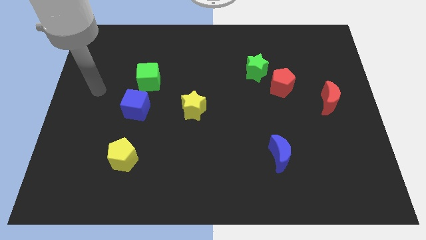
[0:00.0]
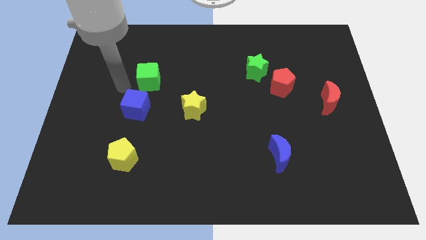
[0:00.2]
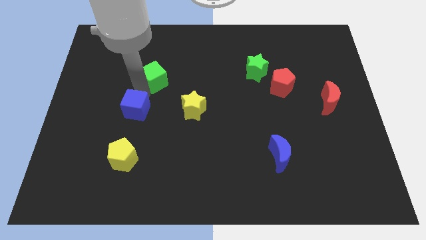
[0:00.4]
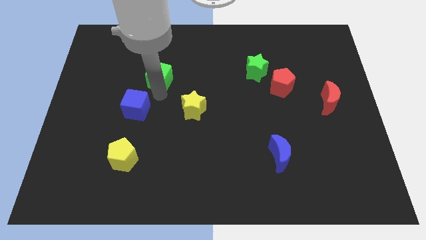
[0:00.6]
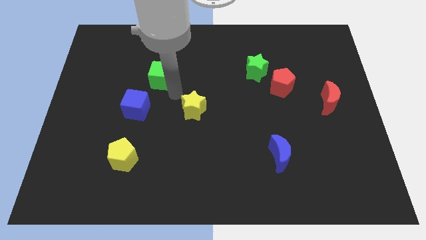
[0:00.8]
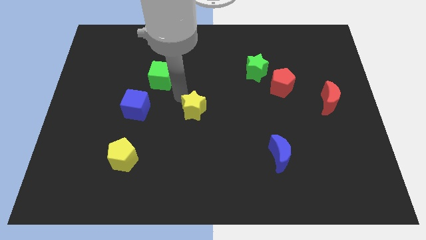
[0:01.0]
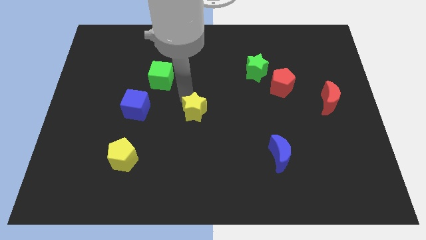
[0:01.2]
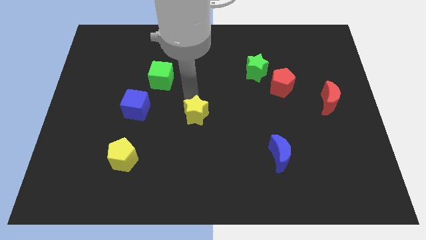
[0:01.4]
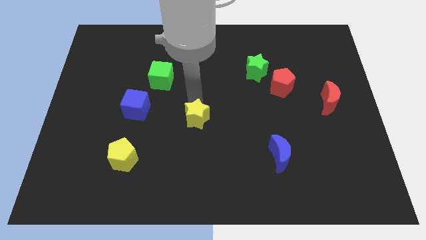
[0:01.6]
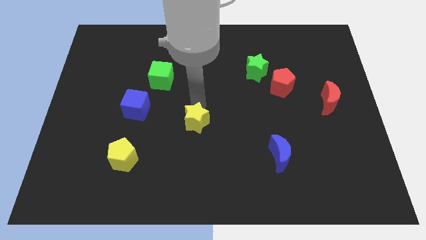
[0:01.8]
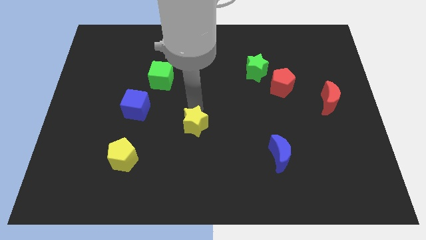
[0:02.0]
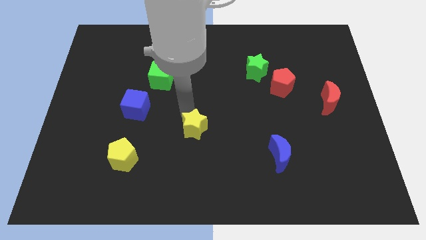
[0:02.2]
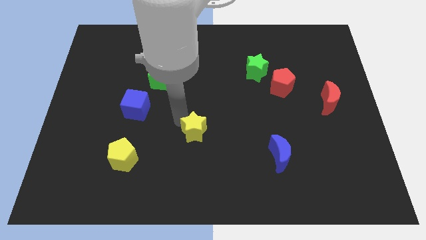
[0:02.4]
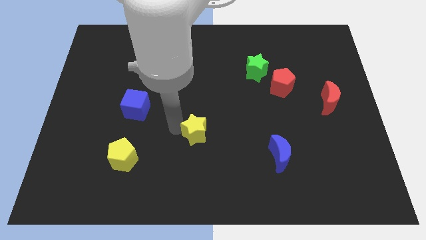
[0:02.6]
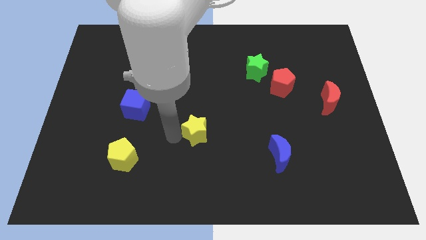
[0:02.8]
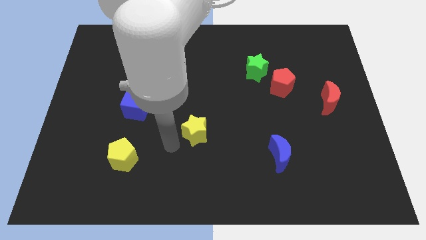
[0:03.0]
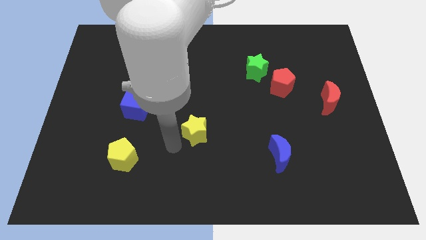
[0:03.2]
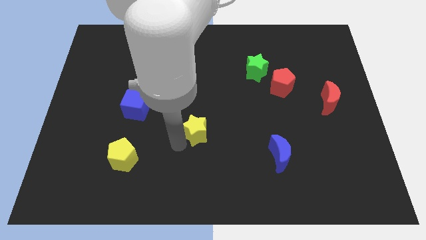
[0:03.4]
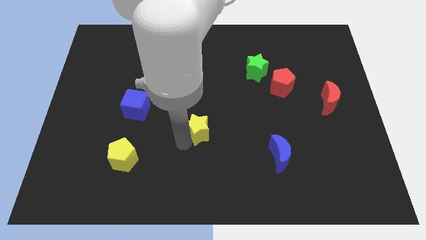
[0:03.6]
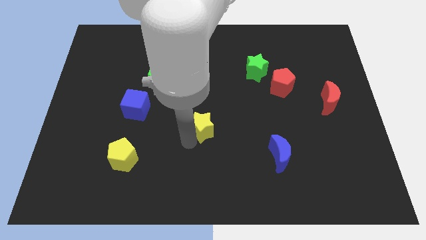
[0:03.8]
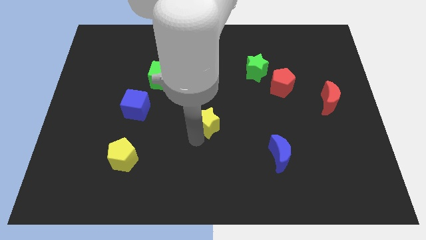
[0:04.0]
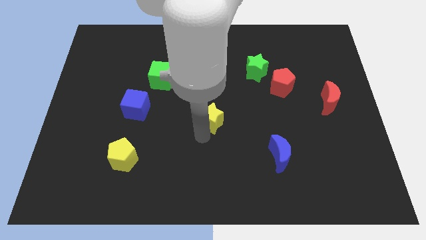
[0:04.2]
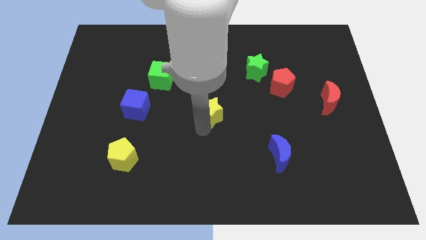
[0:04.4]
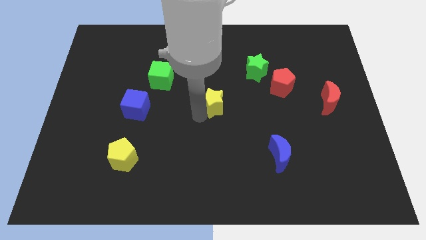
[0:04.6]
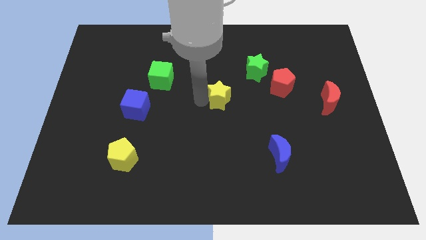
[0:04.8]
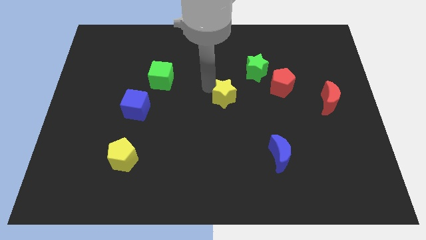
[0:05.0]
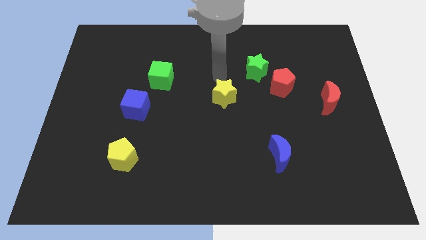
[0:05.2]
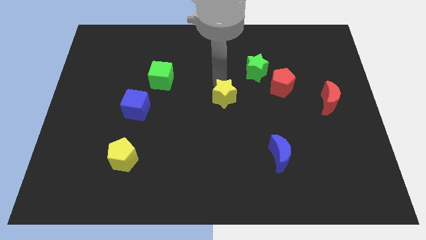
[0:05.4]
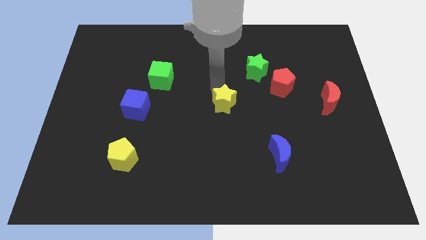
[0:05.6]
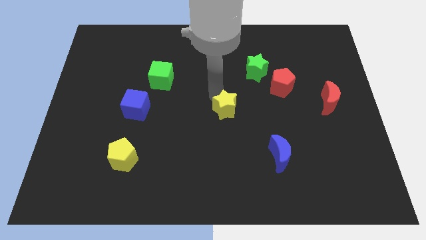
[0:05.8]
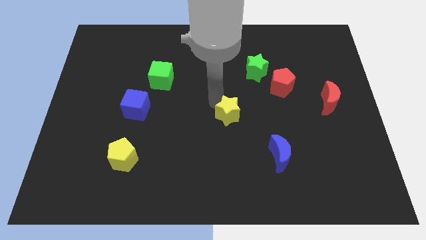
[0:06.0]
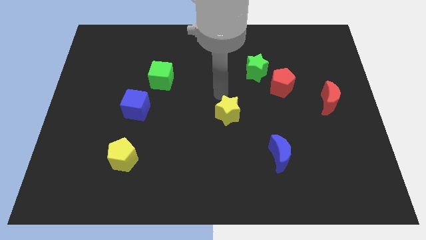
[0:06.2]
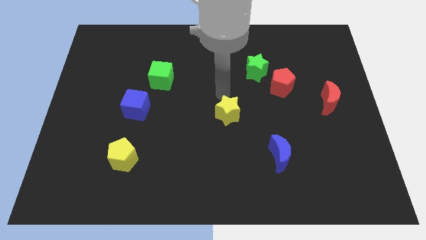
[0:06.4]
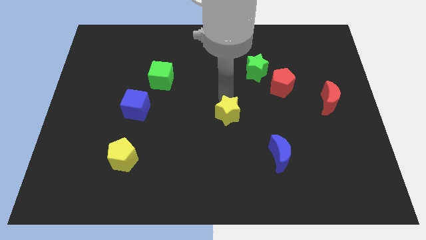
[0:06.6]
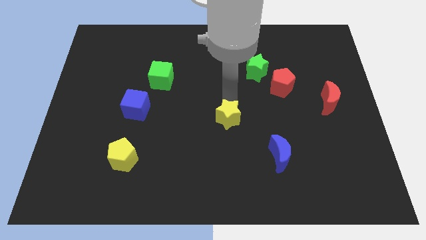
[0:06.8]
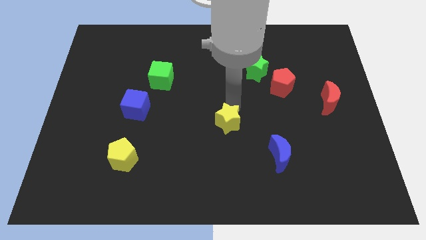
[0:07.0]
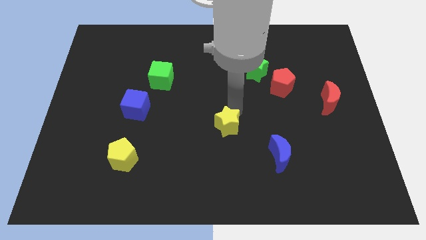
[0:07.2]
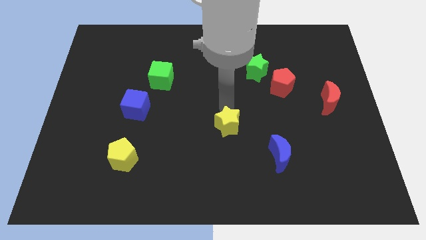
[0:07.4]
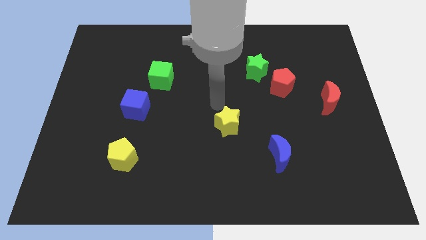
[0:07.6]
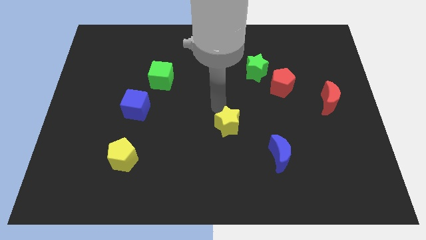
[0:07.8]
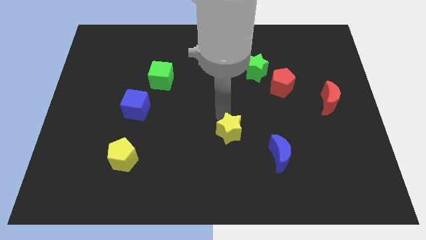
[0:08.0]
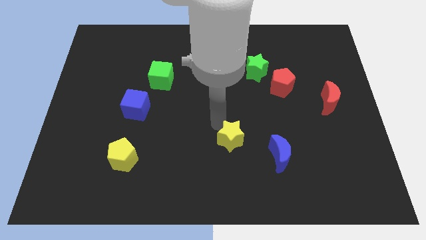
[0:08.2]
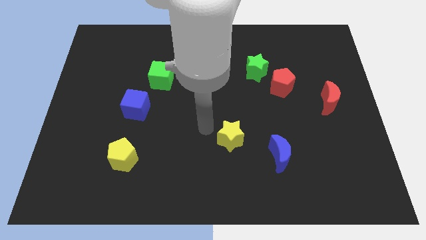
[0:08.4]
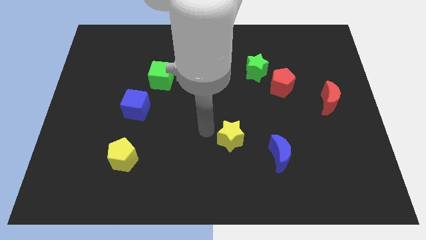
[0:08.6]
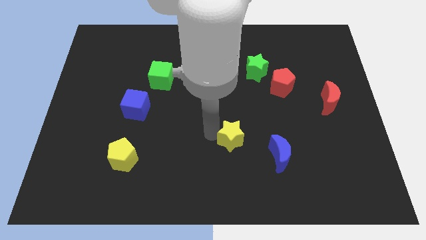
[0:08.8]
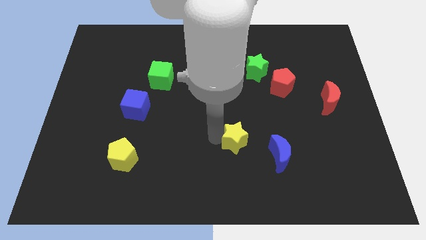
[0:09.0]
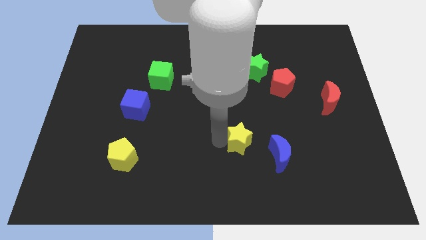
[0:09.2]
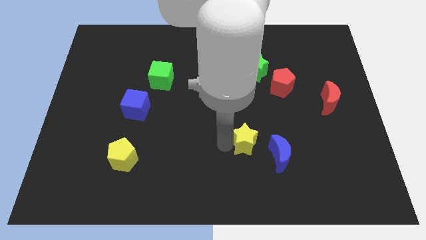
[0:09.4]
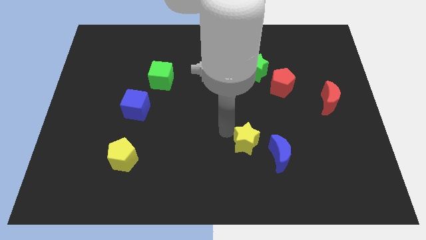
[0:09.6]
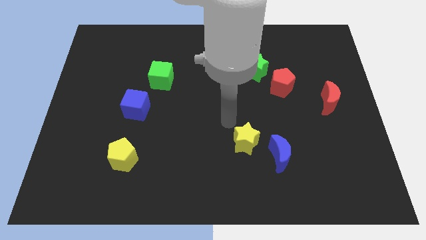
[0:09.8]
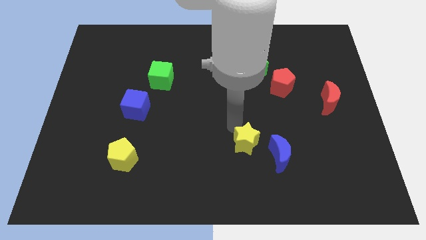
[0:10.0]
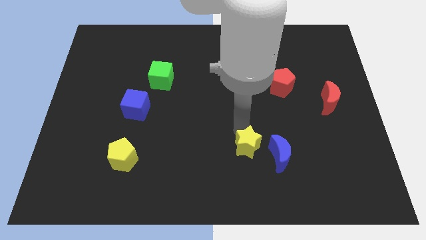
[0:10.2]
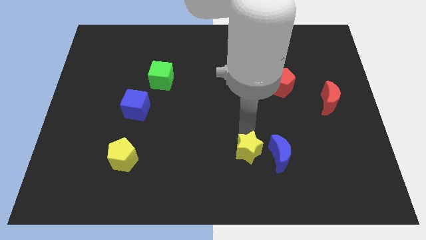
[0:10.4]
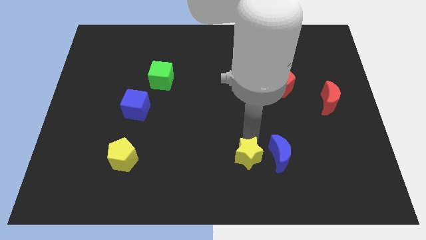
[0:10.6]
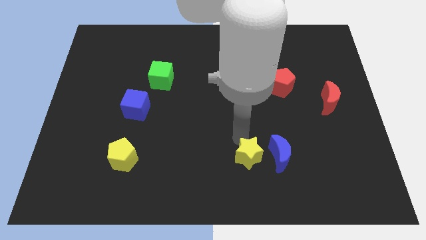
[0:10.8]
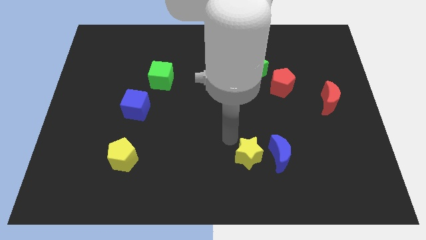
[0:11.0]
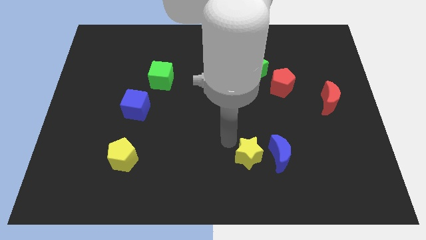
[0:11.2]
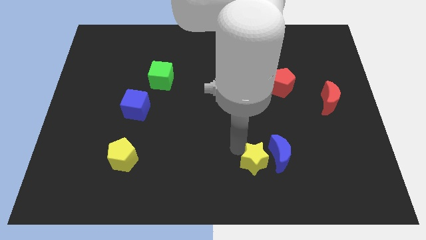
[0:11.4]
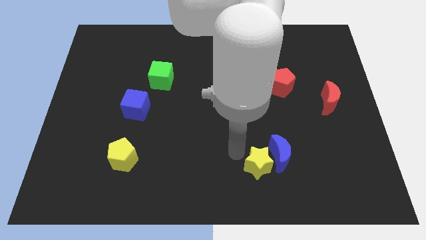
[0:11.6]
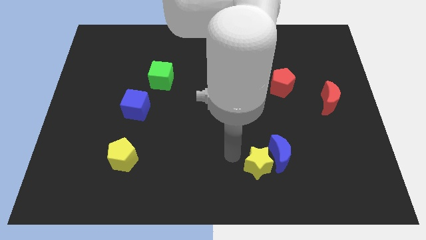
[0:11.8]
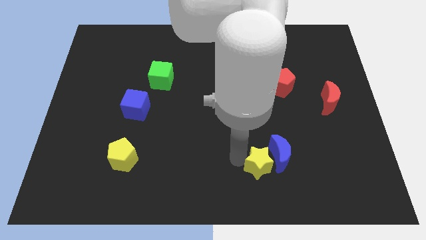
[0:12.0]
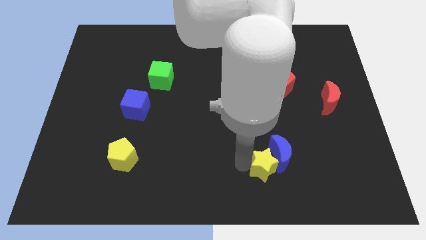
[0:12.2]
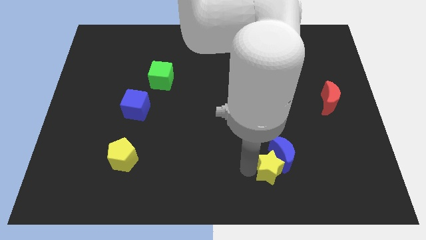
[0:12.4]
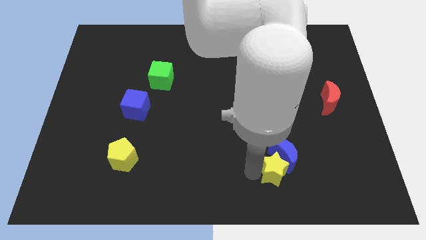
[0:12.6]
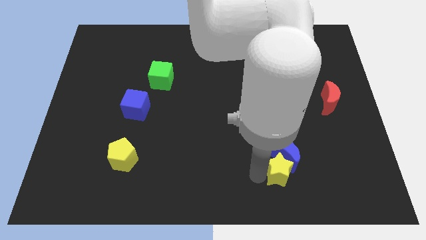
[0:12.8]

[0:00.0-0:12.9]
push the yellow star to the bottom right side of the blue moon
